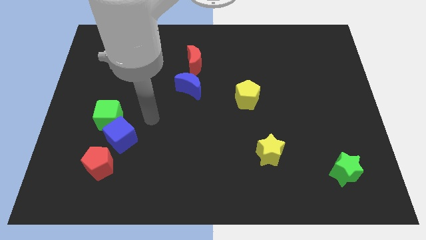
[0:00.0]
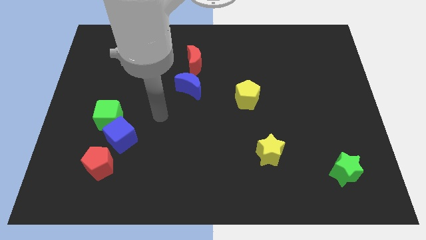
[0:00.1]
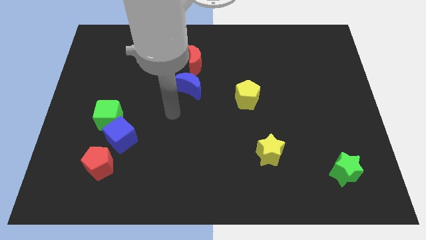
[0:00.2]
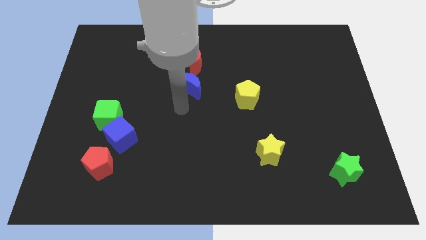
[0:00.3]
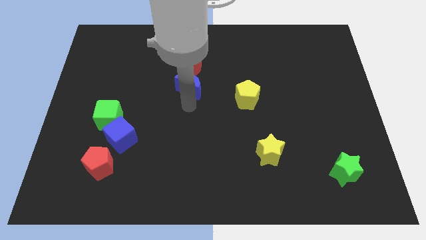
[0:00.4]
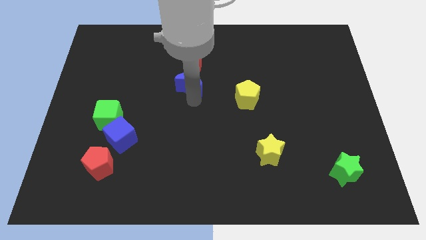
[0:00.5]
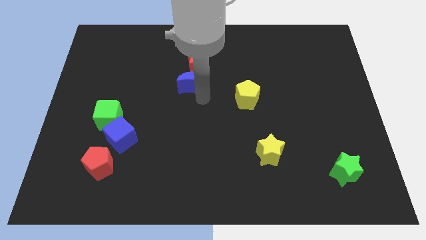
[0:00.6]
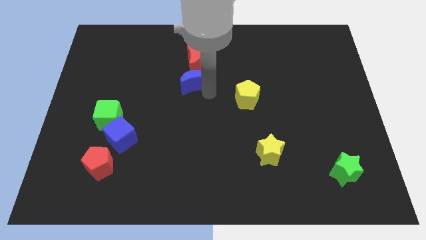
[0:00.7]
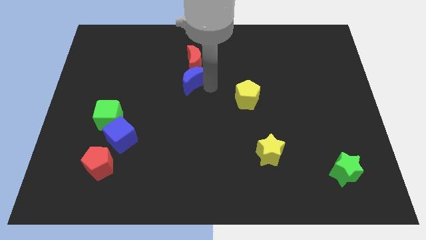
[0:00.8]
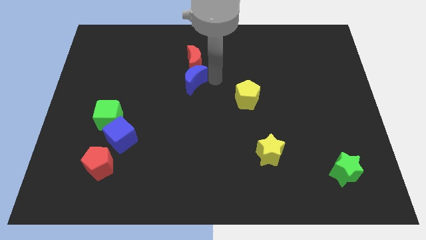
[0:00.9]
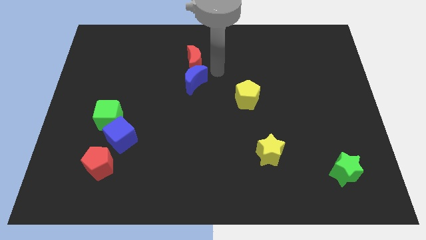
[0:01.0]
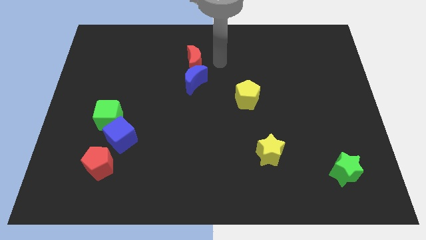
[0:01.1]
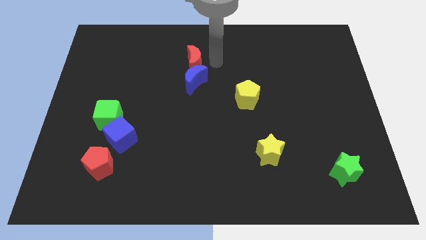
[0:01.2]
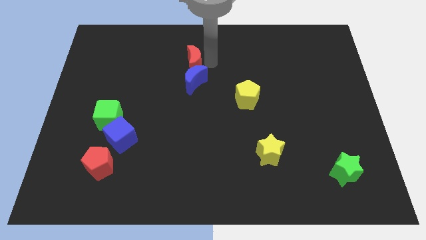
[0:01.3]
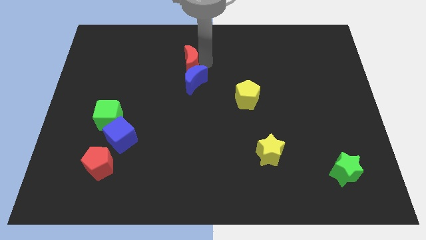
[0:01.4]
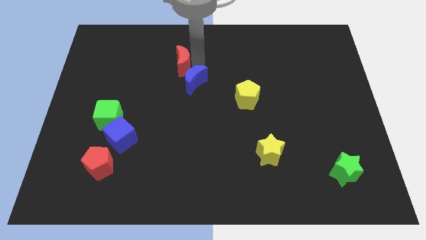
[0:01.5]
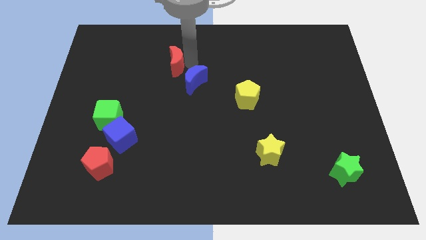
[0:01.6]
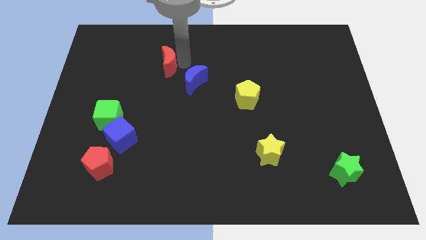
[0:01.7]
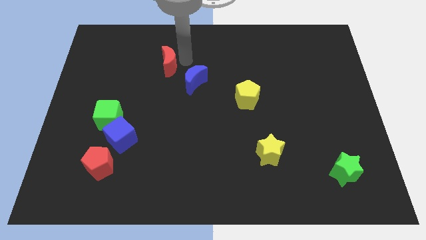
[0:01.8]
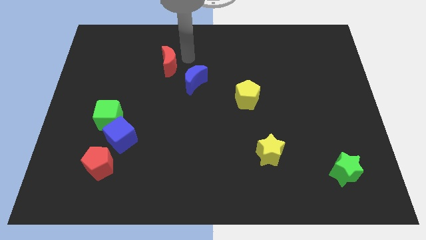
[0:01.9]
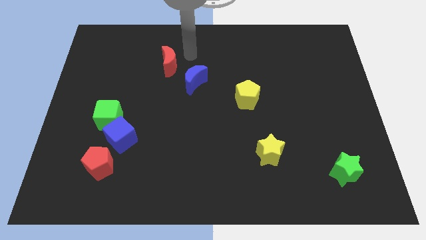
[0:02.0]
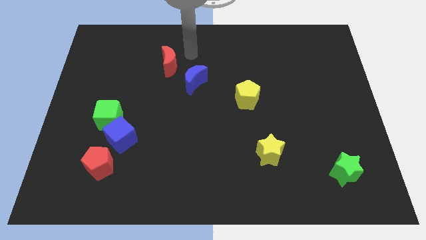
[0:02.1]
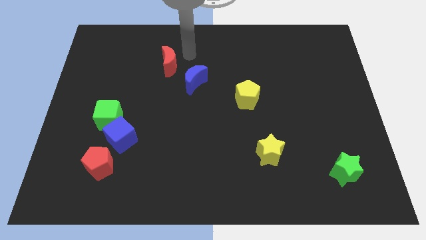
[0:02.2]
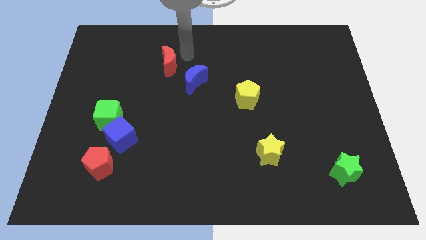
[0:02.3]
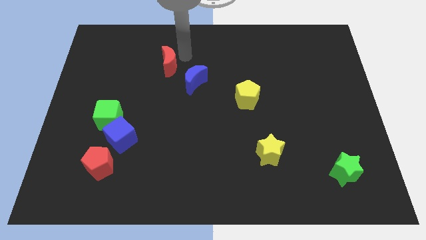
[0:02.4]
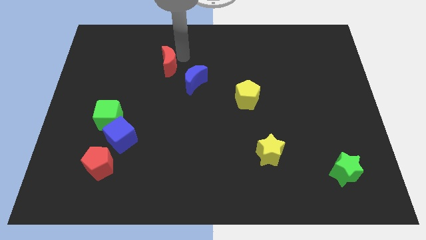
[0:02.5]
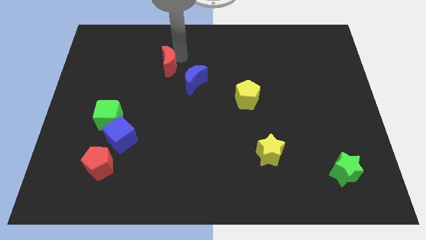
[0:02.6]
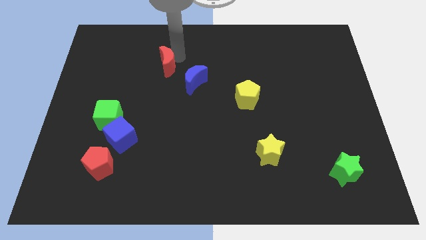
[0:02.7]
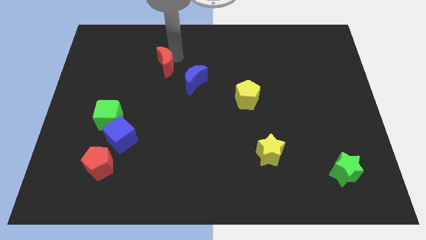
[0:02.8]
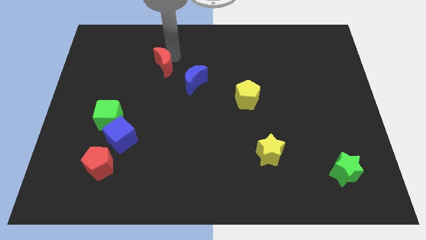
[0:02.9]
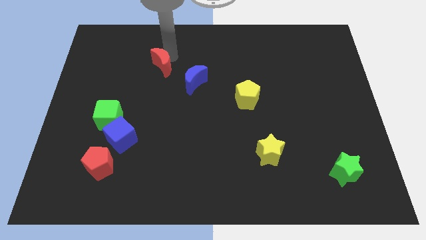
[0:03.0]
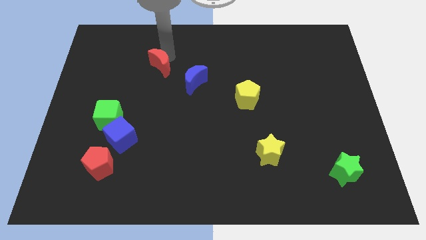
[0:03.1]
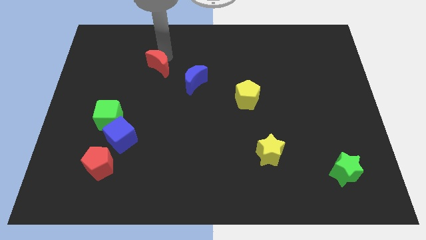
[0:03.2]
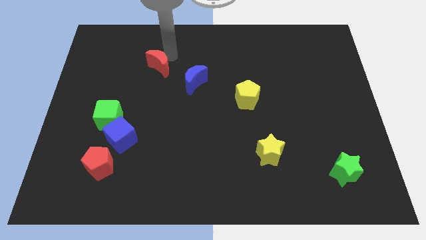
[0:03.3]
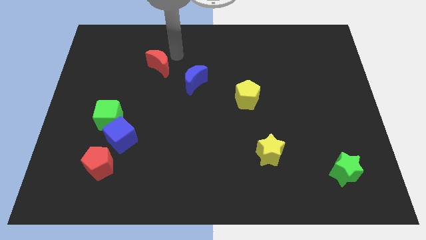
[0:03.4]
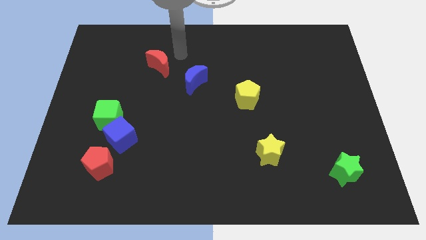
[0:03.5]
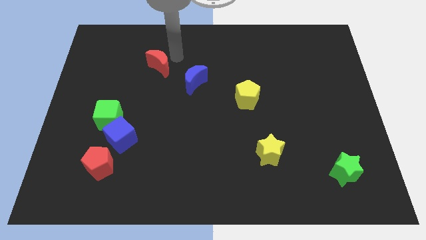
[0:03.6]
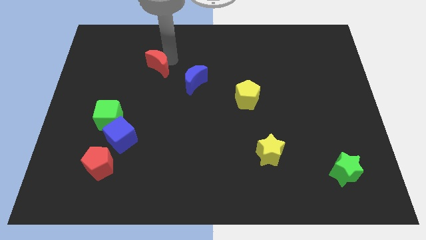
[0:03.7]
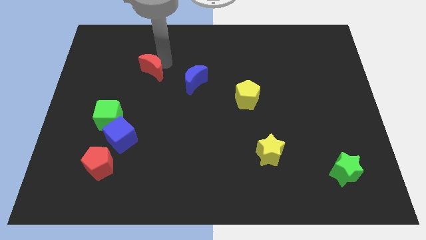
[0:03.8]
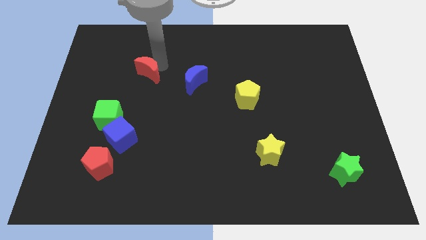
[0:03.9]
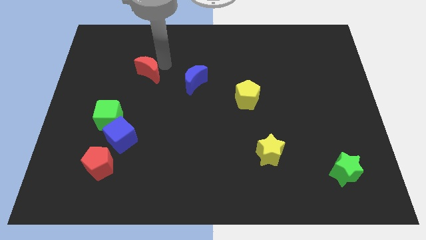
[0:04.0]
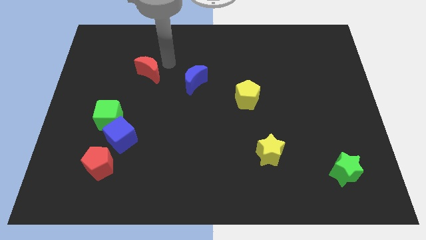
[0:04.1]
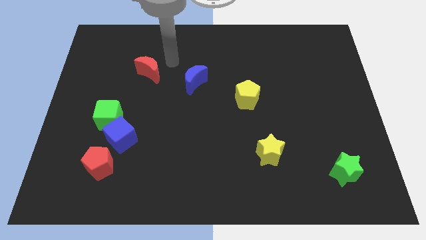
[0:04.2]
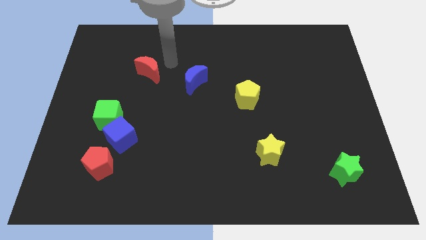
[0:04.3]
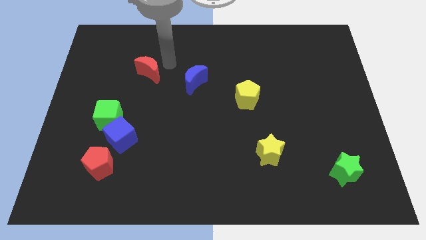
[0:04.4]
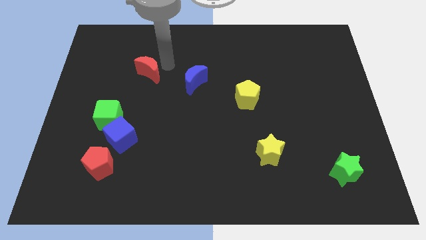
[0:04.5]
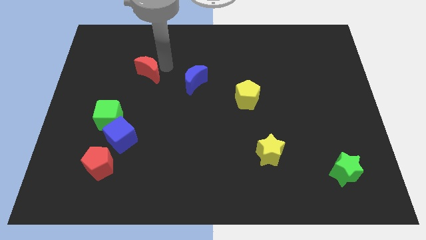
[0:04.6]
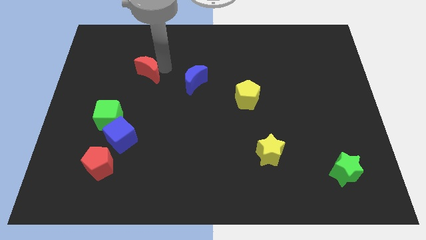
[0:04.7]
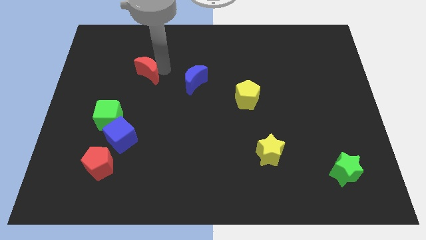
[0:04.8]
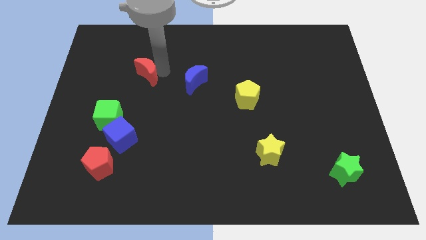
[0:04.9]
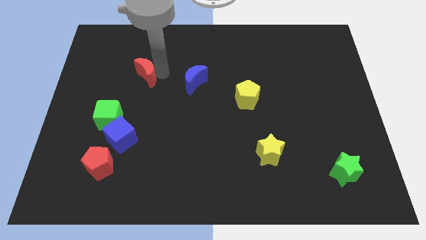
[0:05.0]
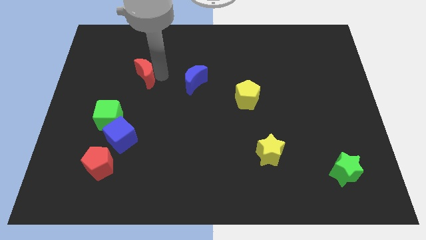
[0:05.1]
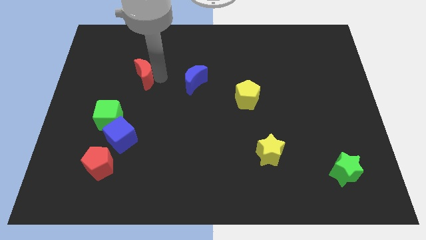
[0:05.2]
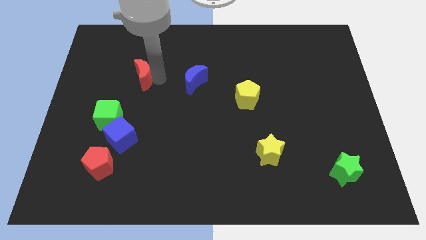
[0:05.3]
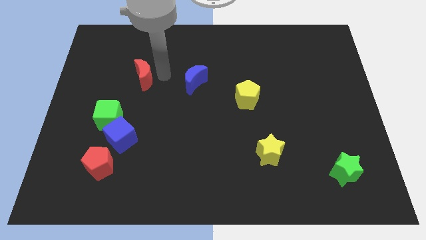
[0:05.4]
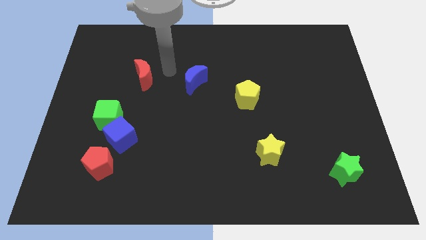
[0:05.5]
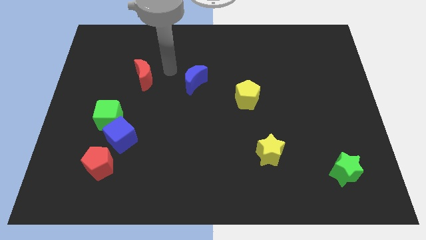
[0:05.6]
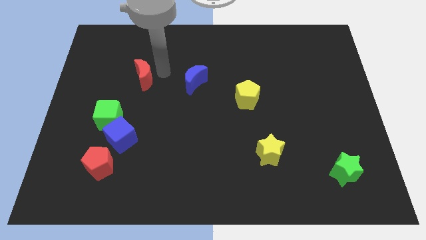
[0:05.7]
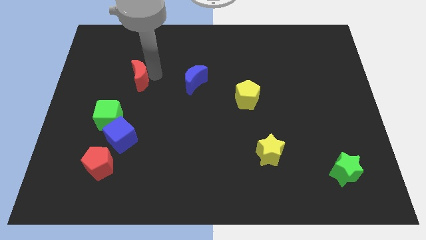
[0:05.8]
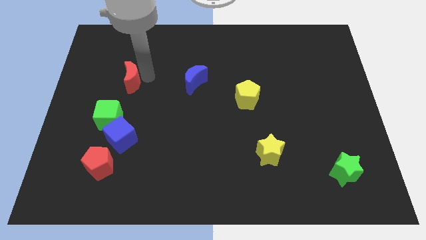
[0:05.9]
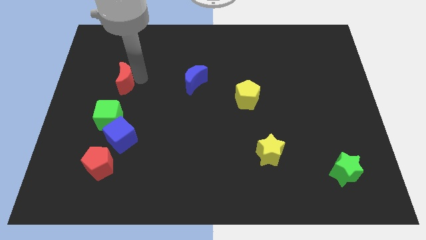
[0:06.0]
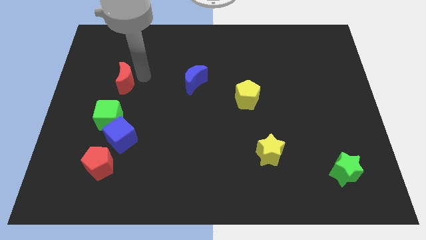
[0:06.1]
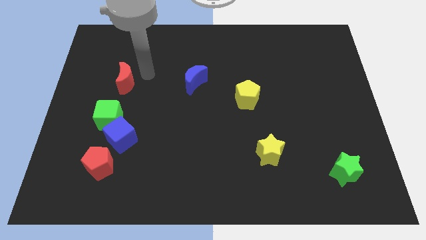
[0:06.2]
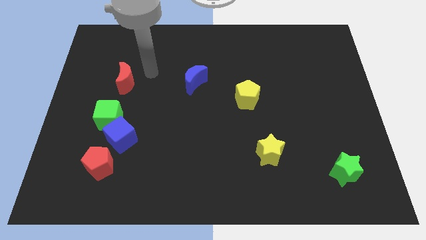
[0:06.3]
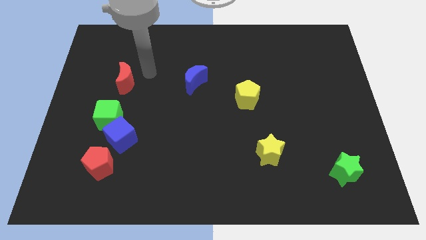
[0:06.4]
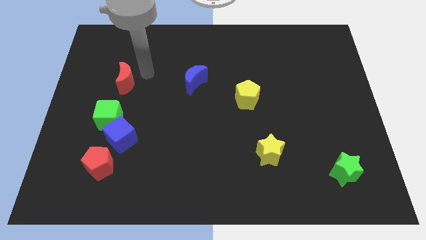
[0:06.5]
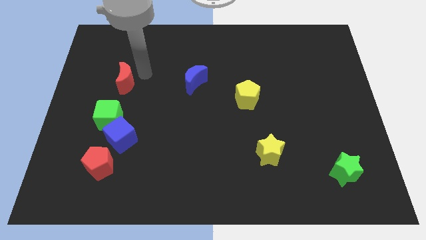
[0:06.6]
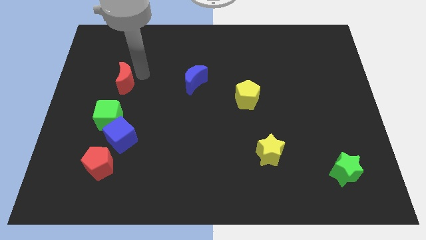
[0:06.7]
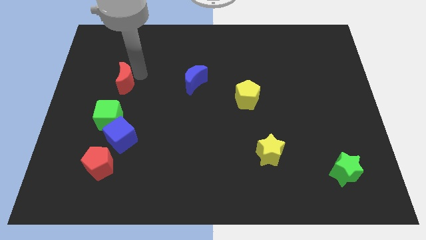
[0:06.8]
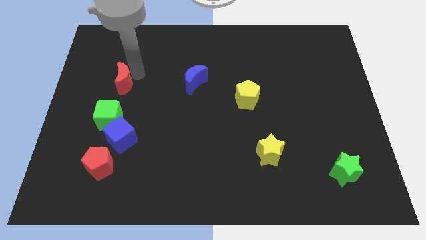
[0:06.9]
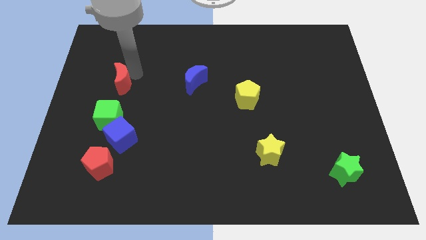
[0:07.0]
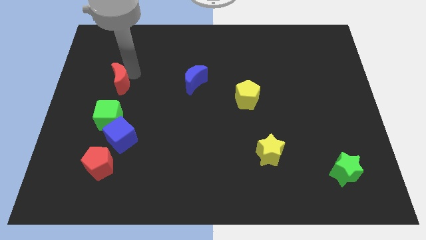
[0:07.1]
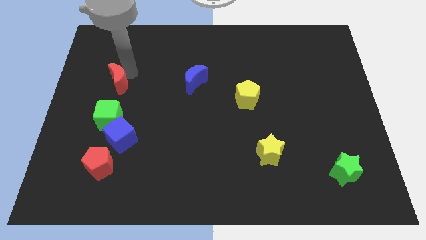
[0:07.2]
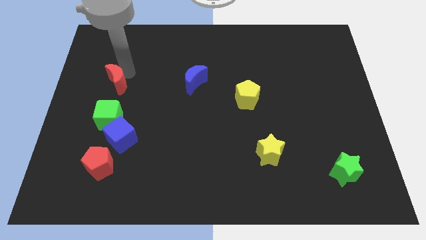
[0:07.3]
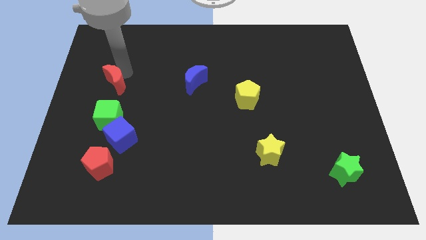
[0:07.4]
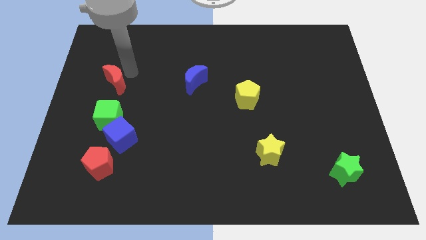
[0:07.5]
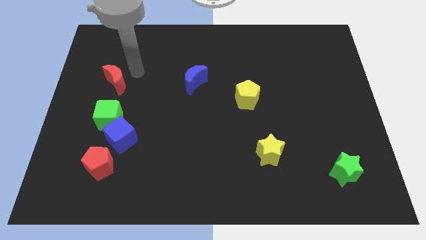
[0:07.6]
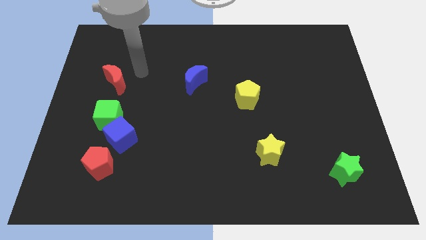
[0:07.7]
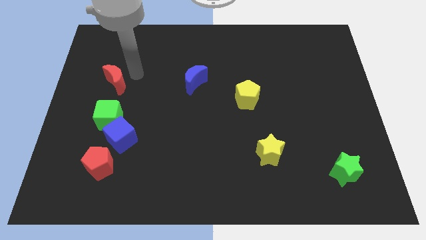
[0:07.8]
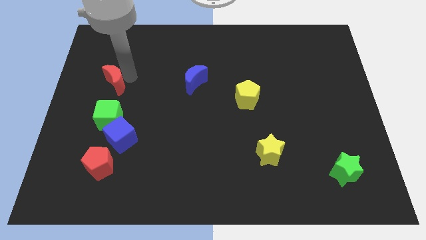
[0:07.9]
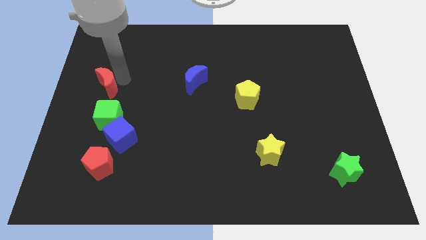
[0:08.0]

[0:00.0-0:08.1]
move the red moon to the center left
